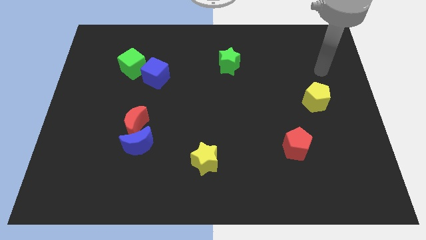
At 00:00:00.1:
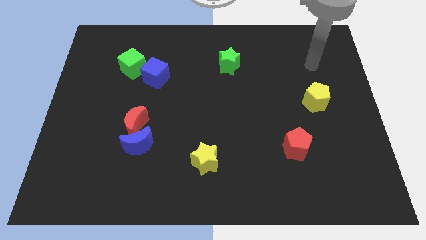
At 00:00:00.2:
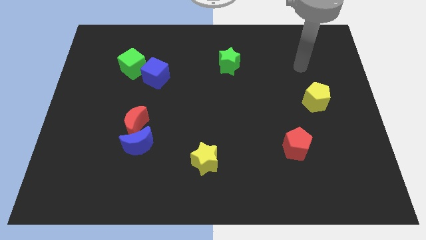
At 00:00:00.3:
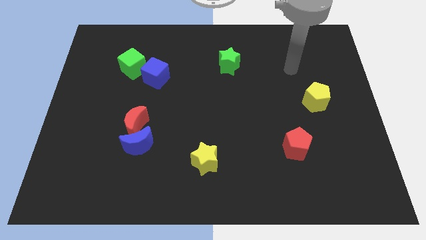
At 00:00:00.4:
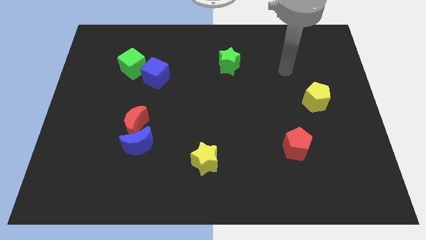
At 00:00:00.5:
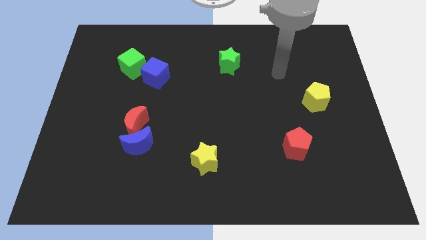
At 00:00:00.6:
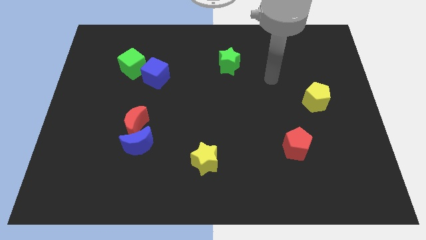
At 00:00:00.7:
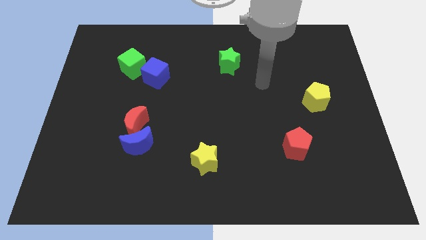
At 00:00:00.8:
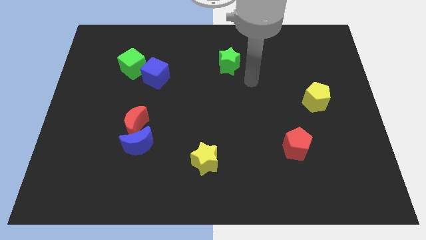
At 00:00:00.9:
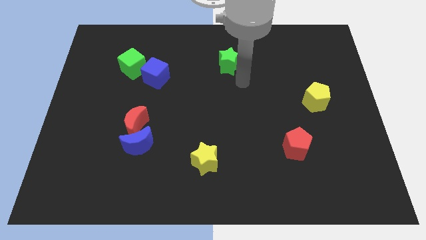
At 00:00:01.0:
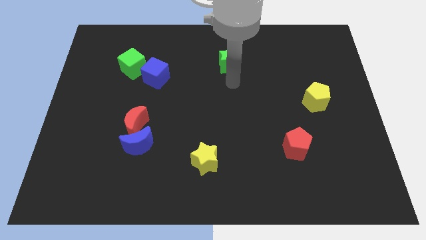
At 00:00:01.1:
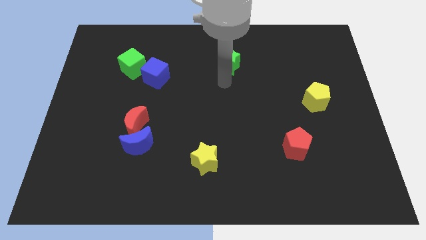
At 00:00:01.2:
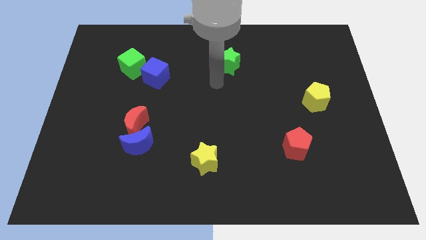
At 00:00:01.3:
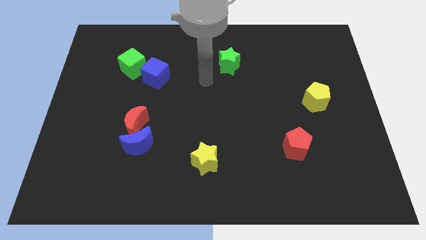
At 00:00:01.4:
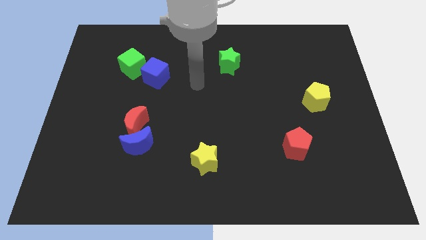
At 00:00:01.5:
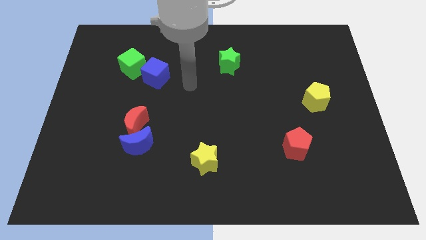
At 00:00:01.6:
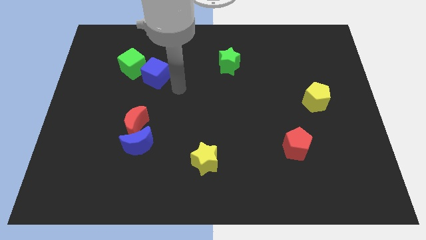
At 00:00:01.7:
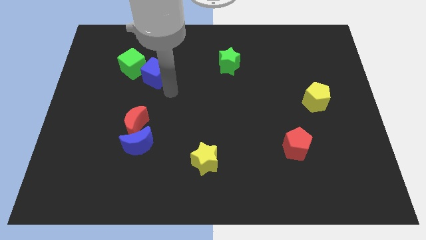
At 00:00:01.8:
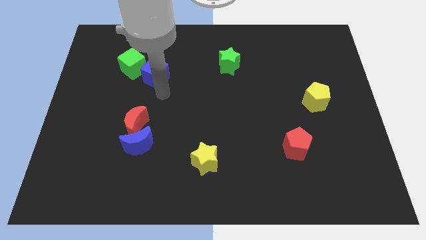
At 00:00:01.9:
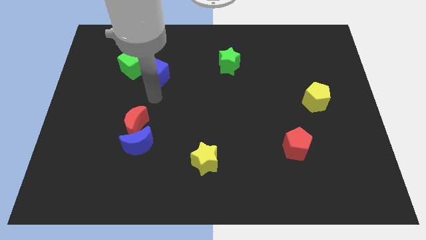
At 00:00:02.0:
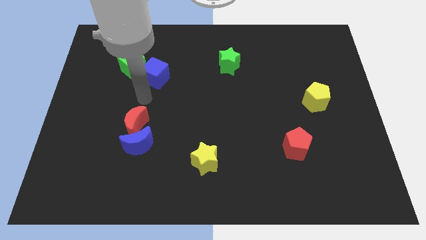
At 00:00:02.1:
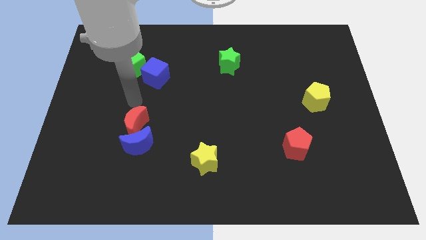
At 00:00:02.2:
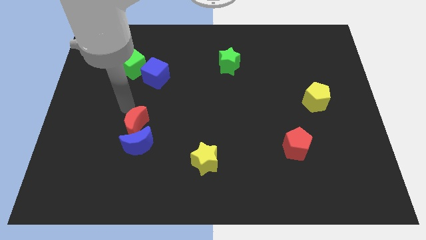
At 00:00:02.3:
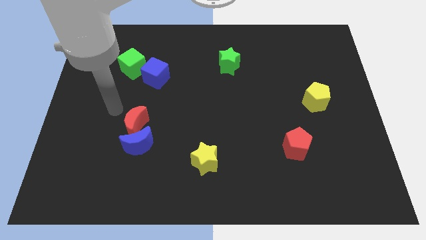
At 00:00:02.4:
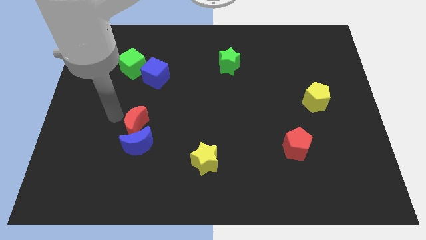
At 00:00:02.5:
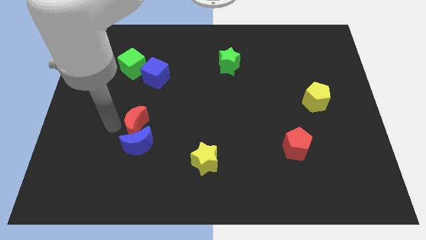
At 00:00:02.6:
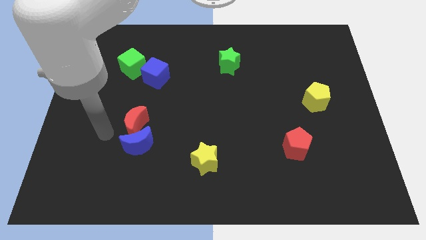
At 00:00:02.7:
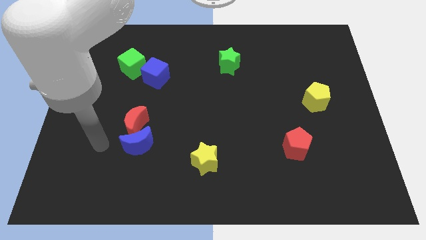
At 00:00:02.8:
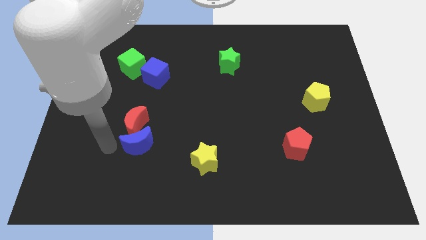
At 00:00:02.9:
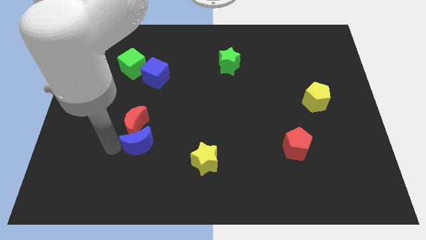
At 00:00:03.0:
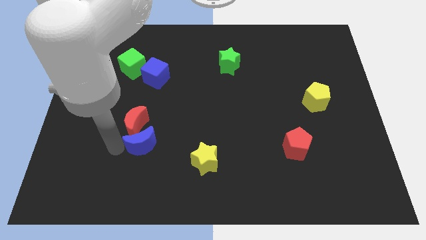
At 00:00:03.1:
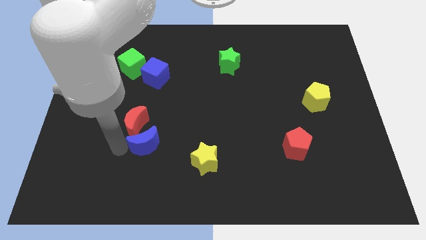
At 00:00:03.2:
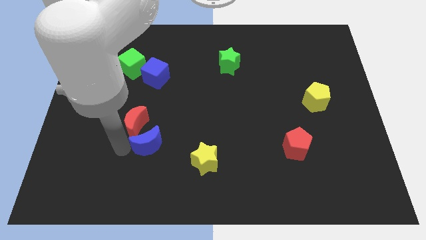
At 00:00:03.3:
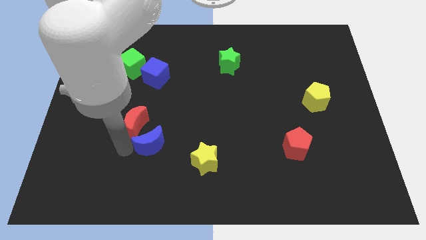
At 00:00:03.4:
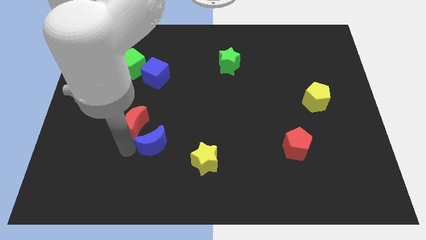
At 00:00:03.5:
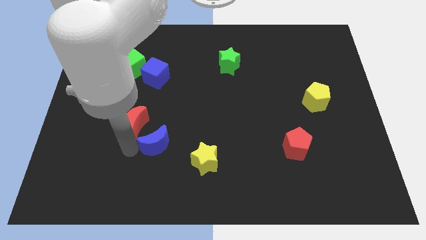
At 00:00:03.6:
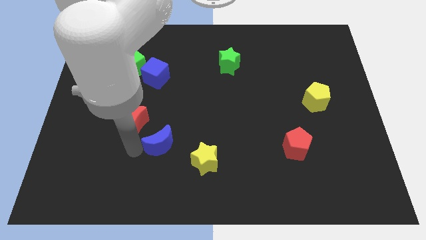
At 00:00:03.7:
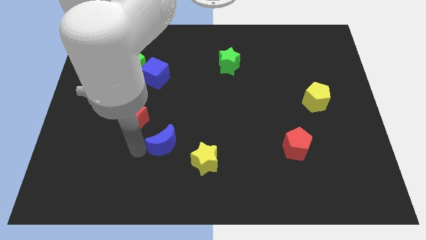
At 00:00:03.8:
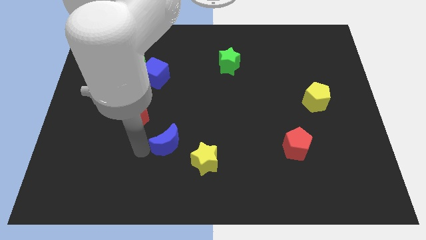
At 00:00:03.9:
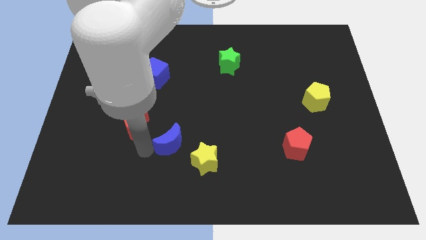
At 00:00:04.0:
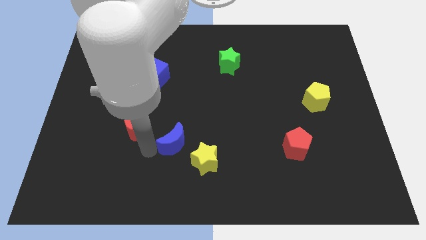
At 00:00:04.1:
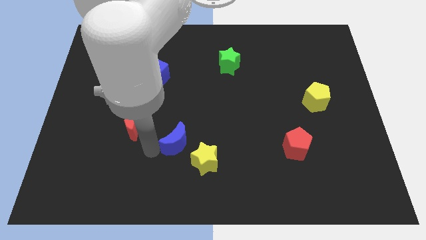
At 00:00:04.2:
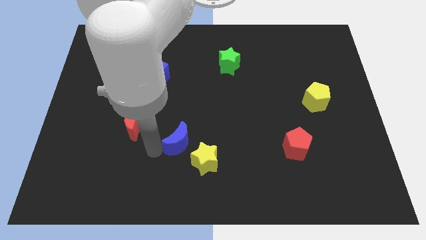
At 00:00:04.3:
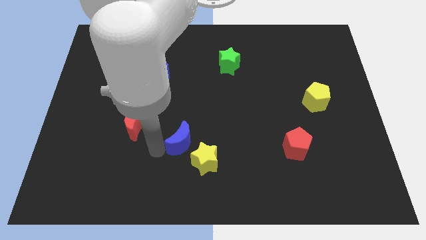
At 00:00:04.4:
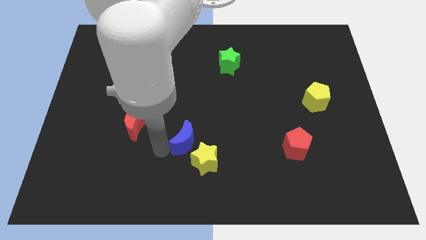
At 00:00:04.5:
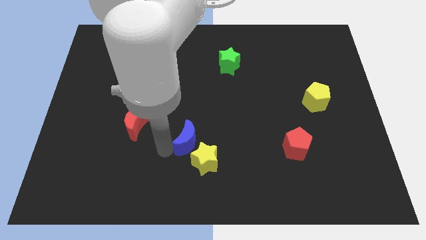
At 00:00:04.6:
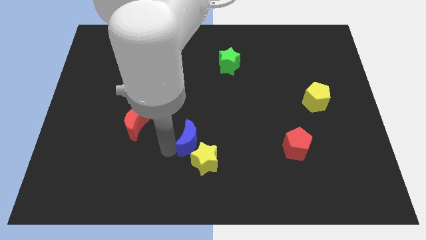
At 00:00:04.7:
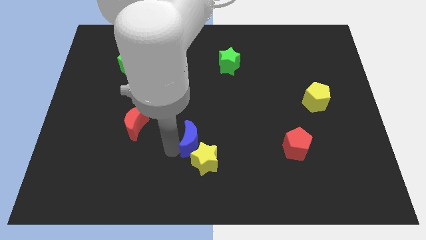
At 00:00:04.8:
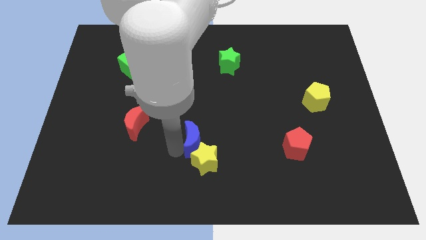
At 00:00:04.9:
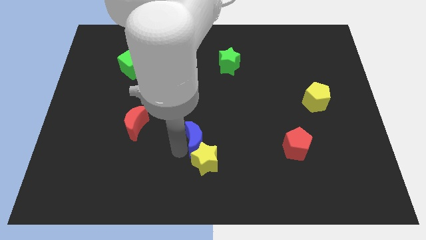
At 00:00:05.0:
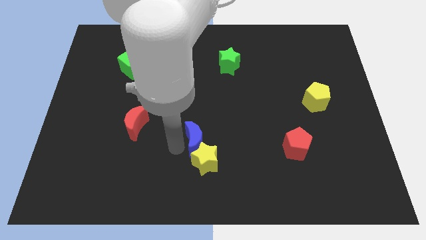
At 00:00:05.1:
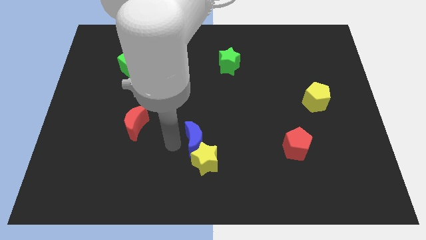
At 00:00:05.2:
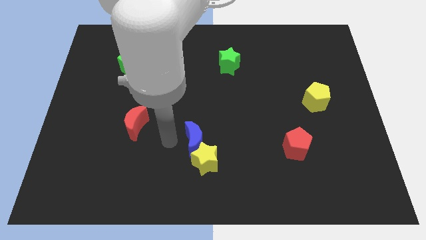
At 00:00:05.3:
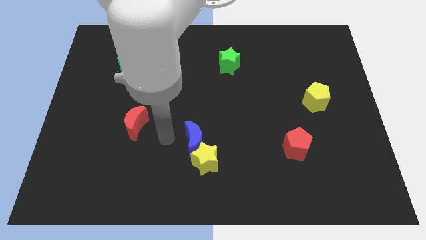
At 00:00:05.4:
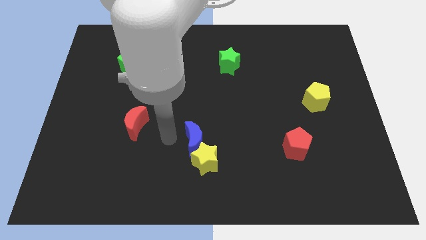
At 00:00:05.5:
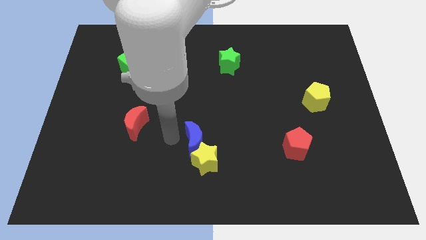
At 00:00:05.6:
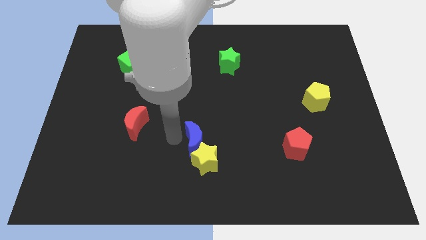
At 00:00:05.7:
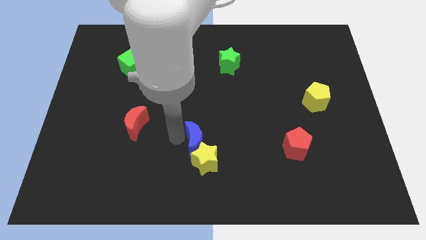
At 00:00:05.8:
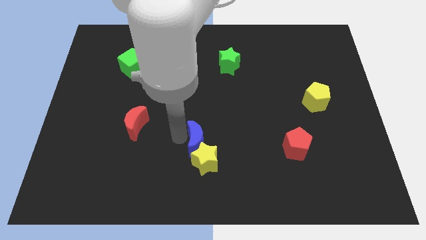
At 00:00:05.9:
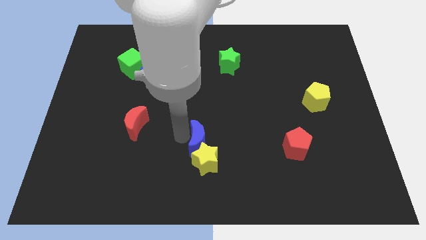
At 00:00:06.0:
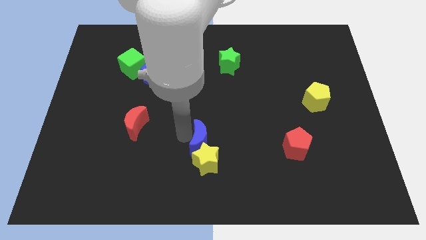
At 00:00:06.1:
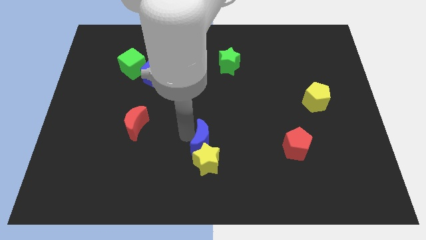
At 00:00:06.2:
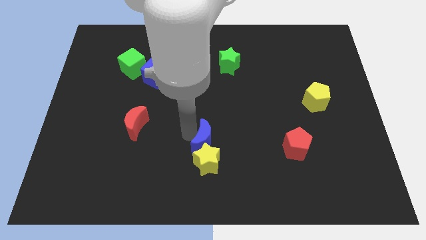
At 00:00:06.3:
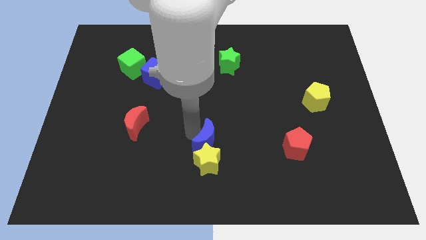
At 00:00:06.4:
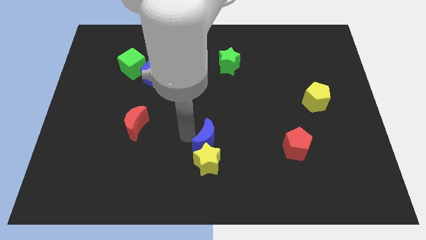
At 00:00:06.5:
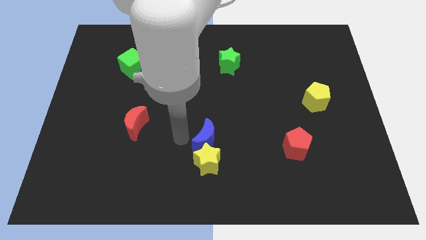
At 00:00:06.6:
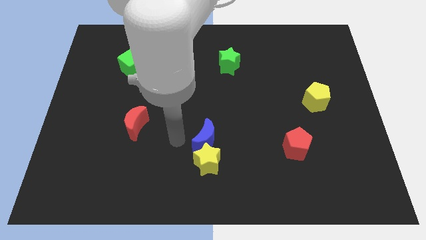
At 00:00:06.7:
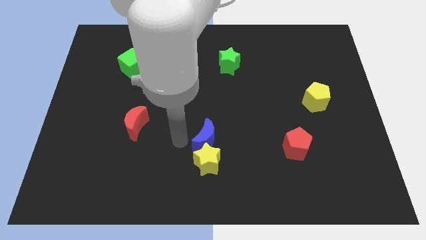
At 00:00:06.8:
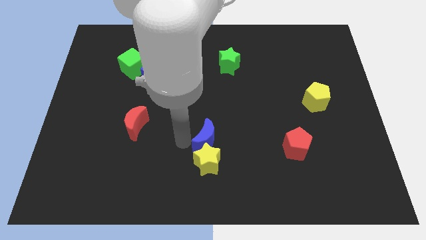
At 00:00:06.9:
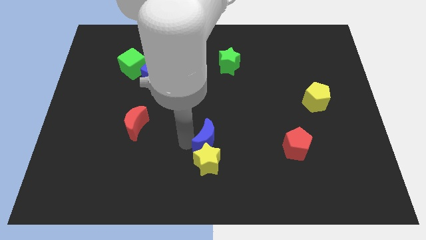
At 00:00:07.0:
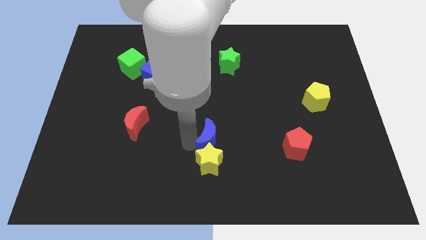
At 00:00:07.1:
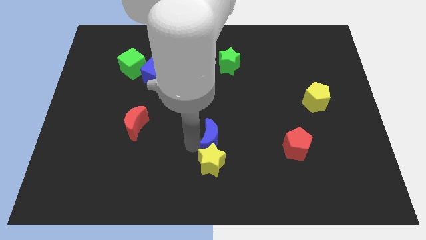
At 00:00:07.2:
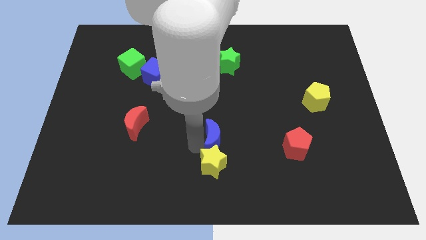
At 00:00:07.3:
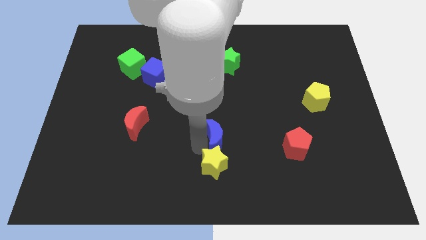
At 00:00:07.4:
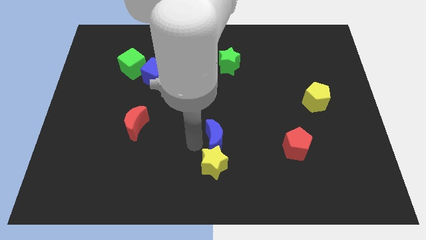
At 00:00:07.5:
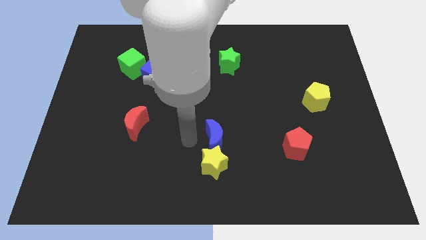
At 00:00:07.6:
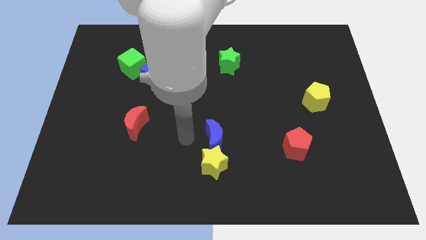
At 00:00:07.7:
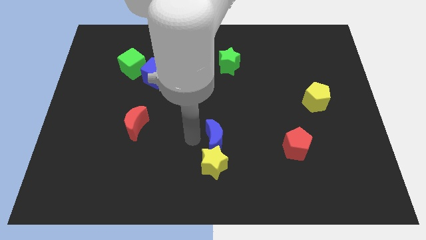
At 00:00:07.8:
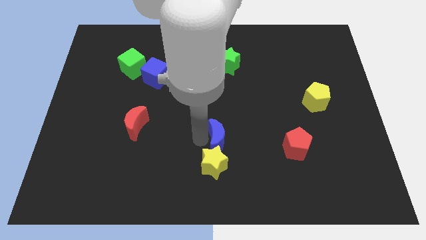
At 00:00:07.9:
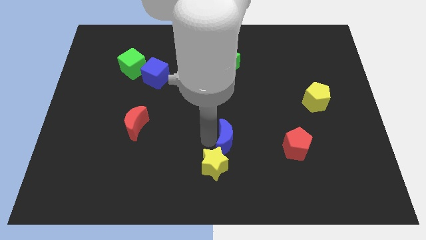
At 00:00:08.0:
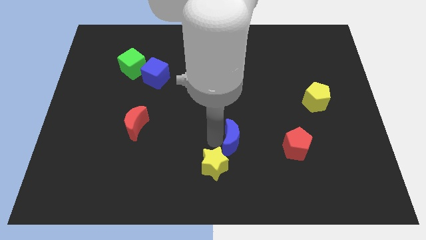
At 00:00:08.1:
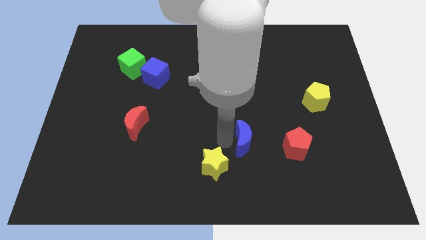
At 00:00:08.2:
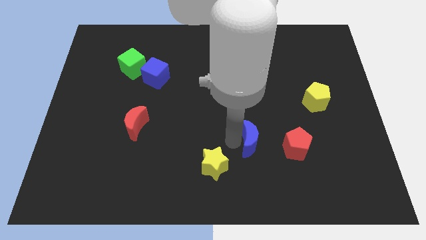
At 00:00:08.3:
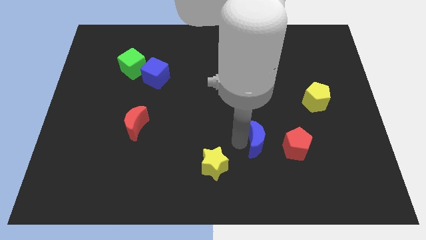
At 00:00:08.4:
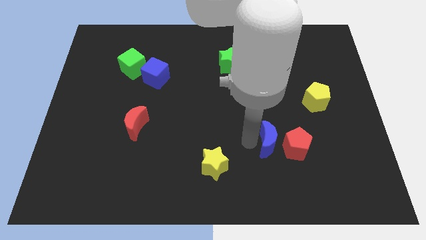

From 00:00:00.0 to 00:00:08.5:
put the blue moon next to the red pentagon
